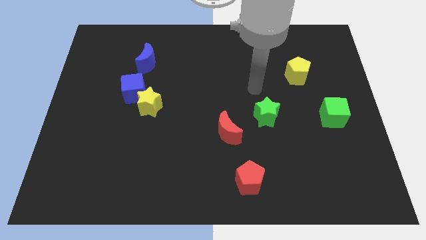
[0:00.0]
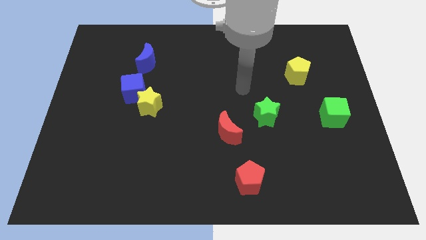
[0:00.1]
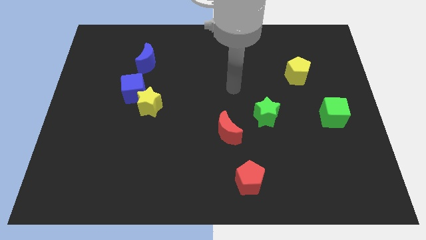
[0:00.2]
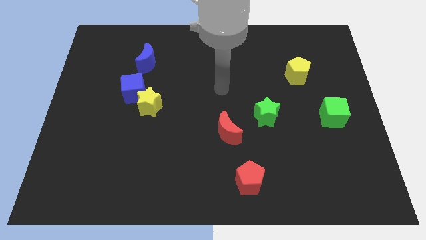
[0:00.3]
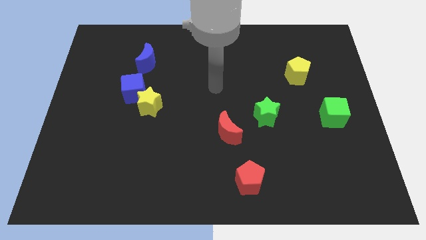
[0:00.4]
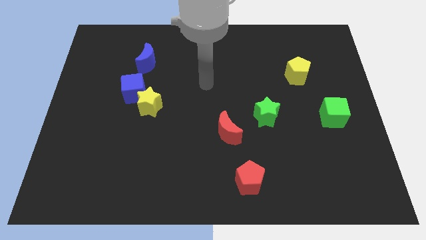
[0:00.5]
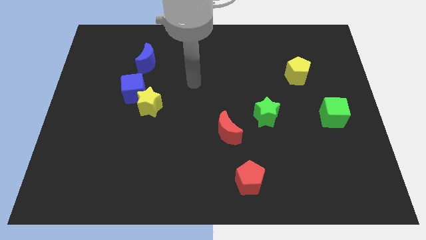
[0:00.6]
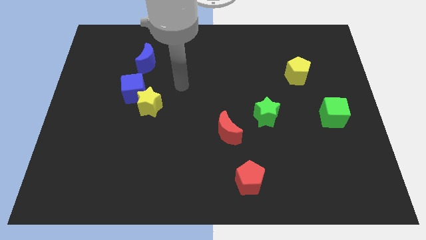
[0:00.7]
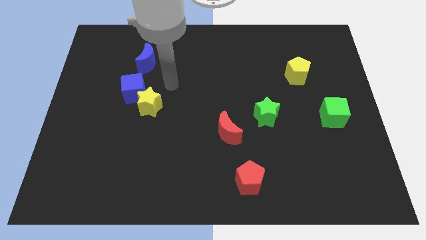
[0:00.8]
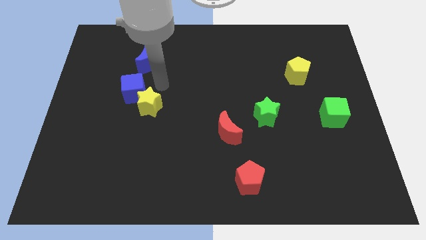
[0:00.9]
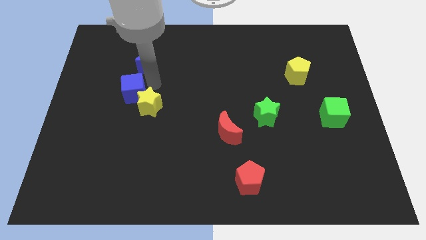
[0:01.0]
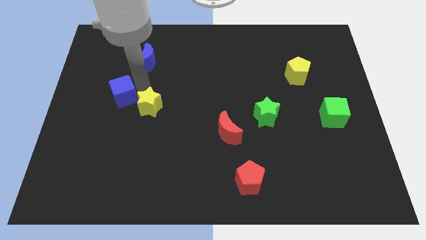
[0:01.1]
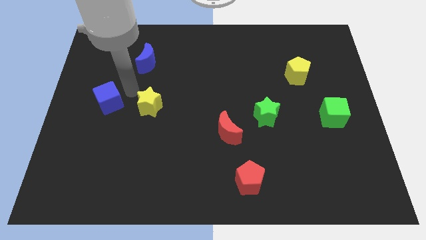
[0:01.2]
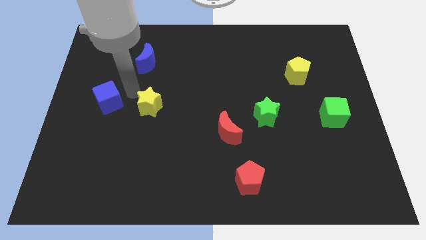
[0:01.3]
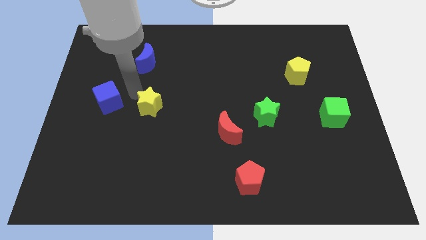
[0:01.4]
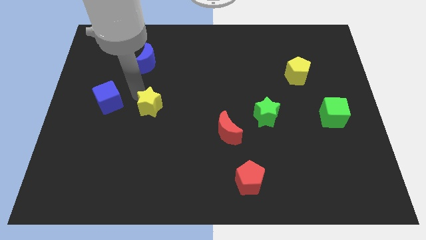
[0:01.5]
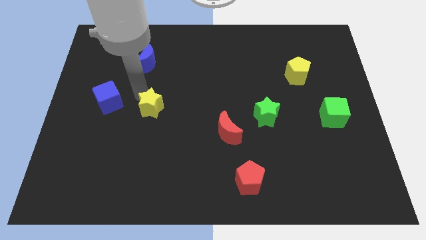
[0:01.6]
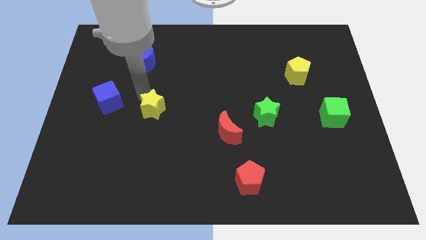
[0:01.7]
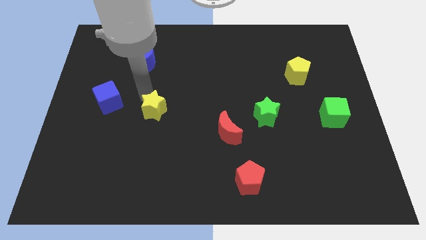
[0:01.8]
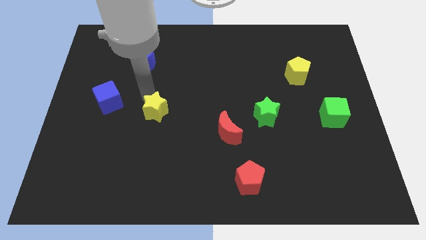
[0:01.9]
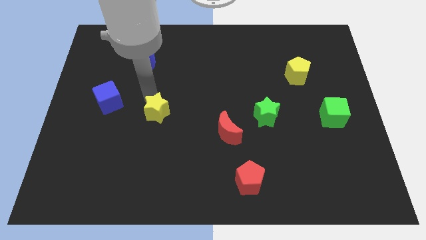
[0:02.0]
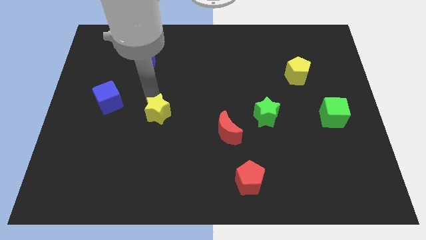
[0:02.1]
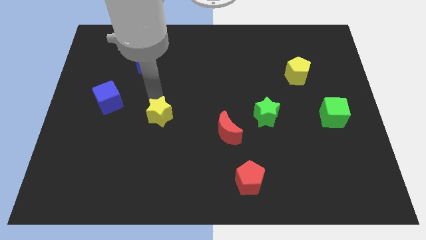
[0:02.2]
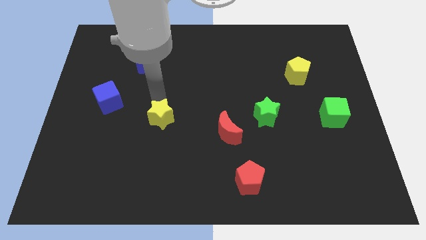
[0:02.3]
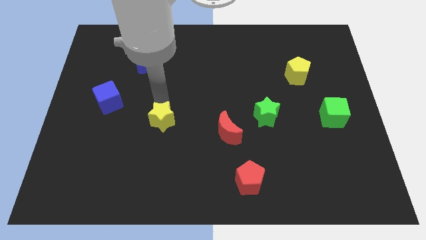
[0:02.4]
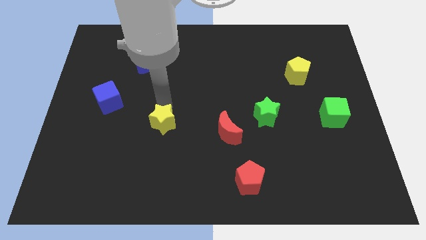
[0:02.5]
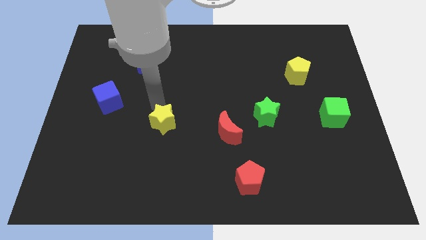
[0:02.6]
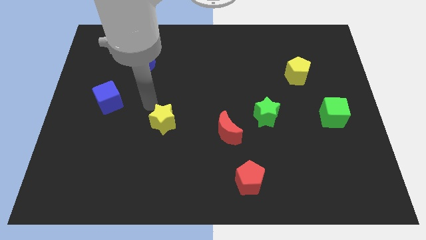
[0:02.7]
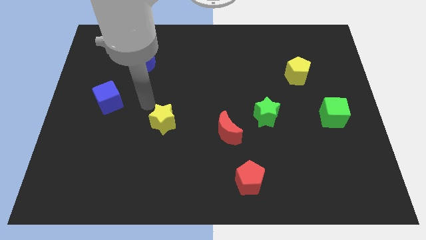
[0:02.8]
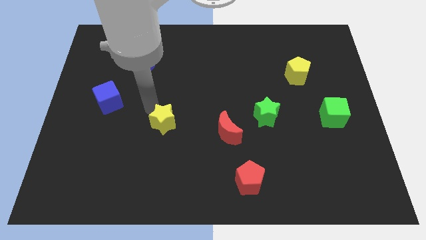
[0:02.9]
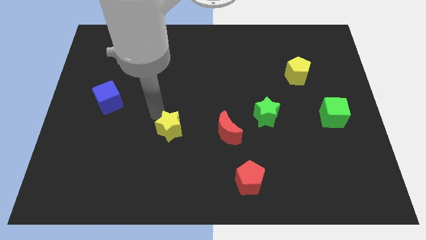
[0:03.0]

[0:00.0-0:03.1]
push the yellow star slightly down and to the right diagonally

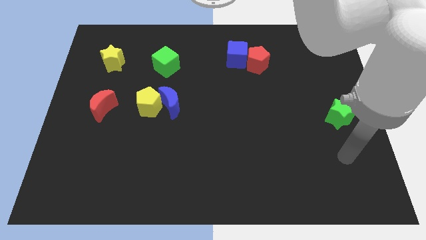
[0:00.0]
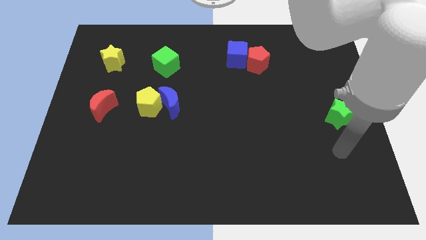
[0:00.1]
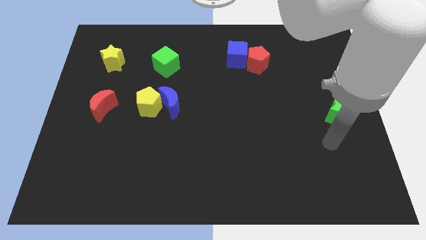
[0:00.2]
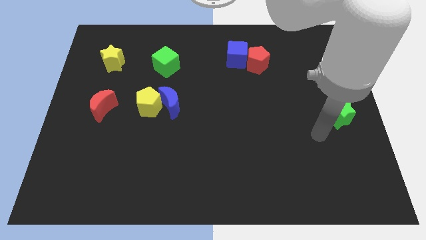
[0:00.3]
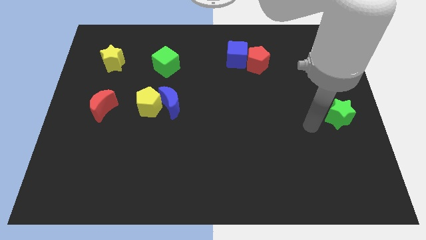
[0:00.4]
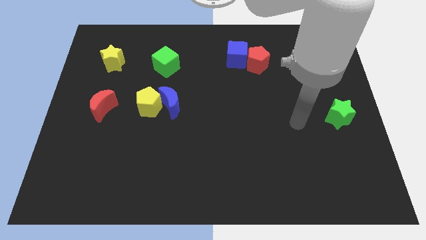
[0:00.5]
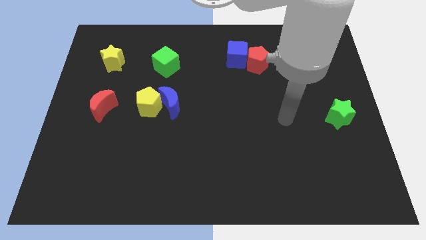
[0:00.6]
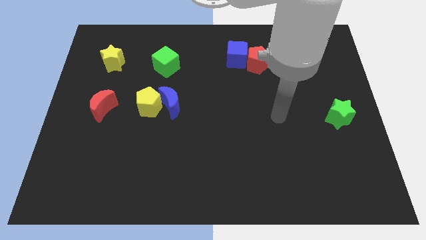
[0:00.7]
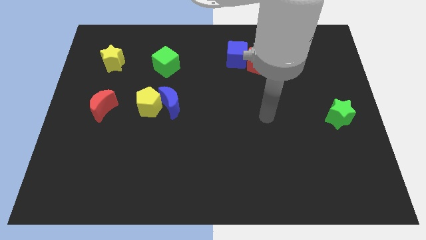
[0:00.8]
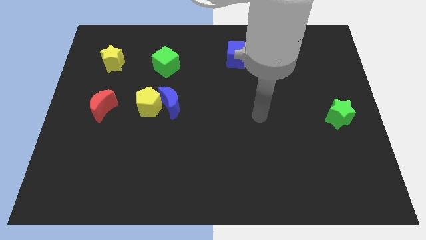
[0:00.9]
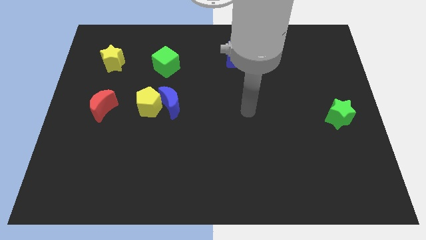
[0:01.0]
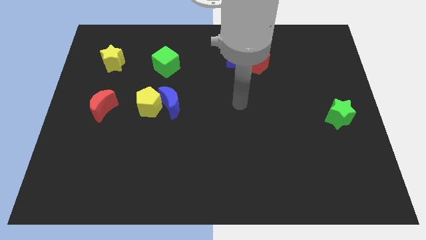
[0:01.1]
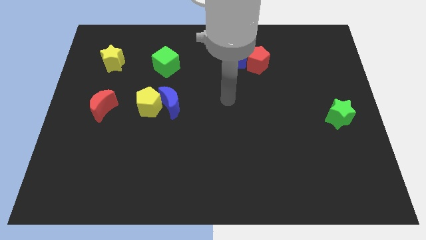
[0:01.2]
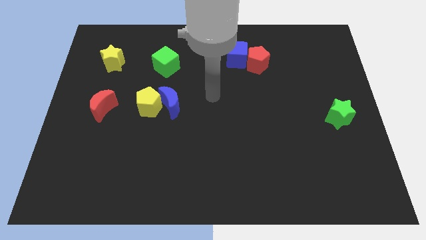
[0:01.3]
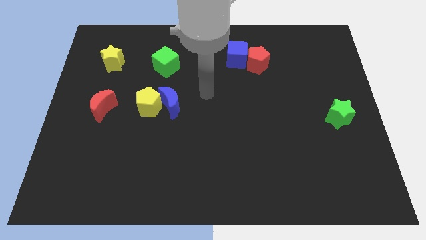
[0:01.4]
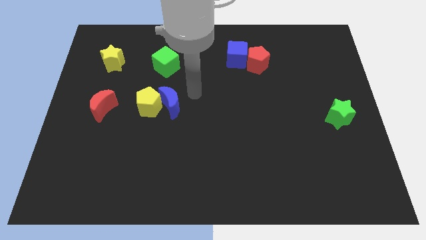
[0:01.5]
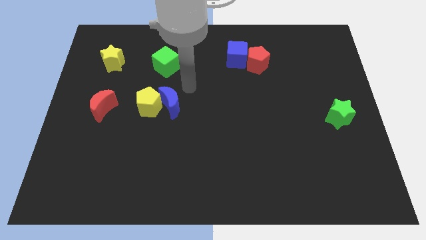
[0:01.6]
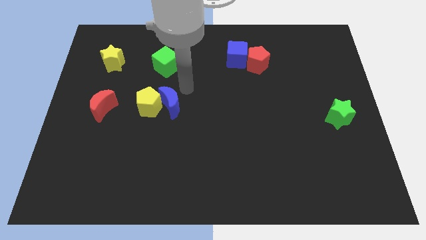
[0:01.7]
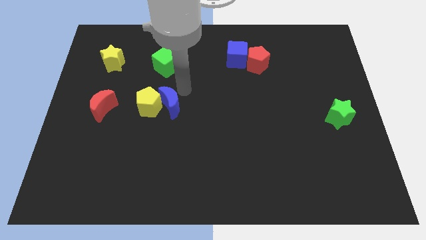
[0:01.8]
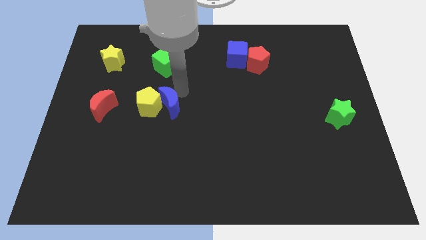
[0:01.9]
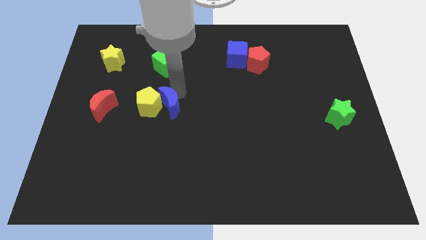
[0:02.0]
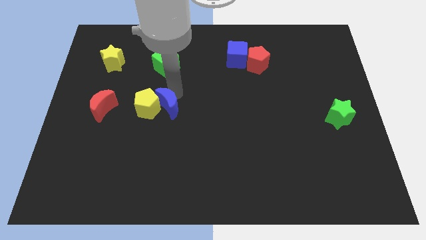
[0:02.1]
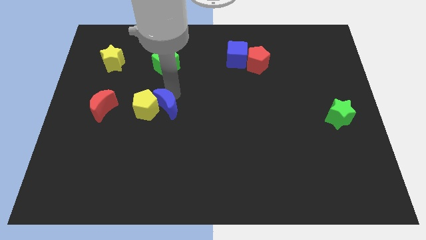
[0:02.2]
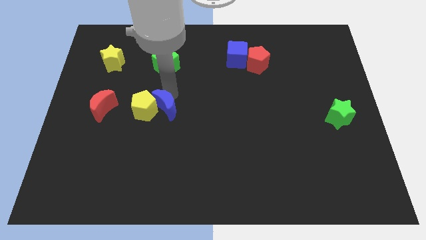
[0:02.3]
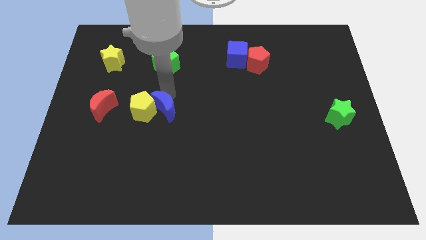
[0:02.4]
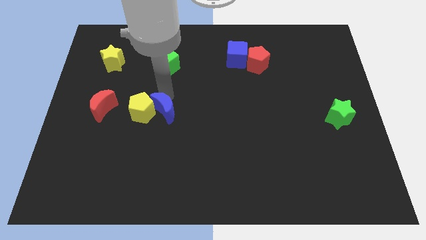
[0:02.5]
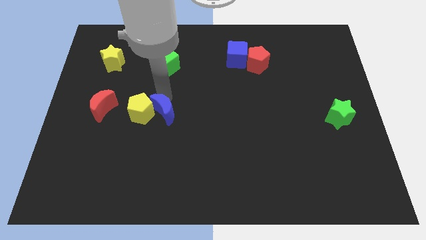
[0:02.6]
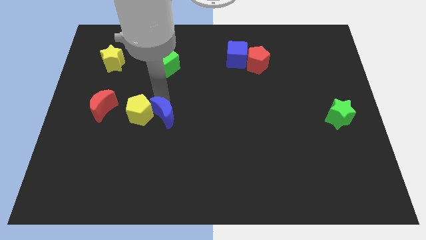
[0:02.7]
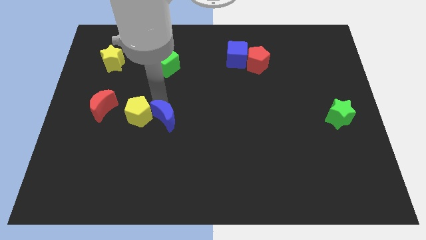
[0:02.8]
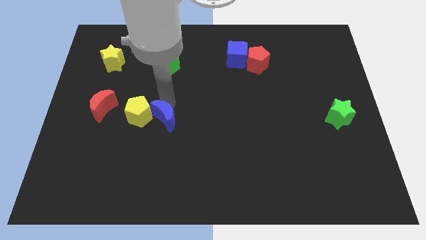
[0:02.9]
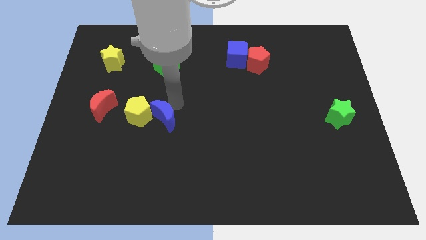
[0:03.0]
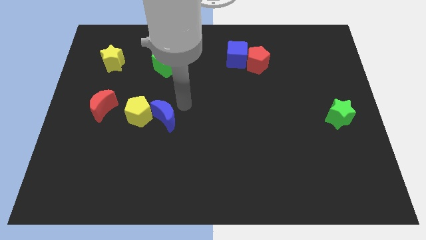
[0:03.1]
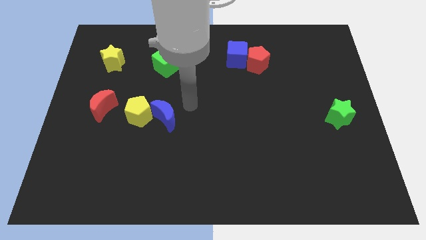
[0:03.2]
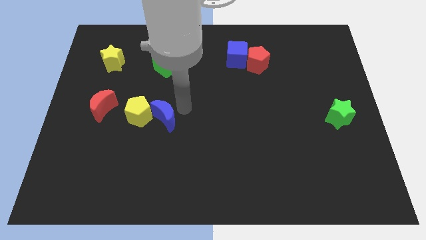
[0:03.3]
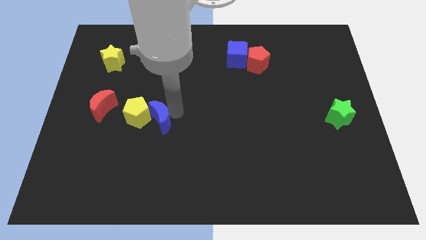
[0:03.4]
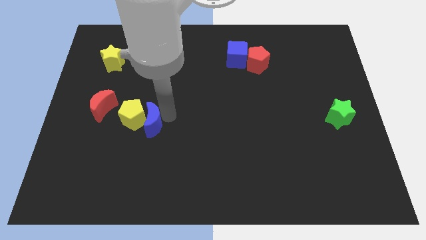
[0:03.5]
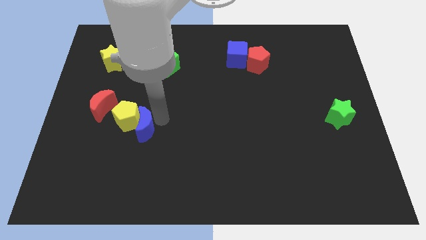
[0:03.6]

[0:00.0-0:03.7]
slightly push the blue moon down and to the left

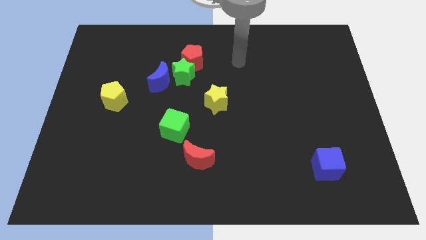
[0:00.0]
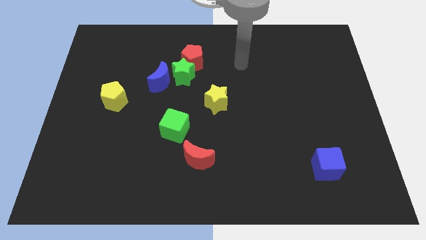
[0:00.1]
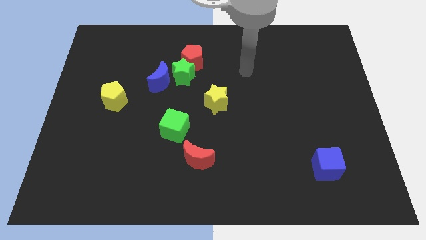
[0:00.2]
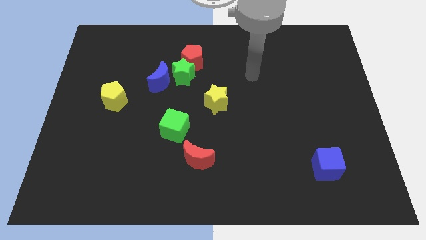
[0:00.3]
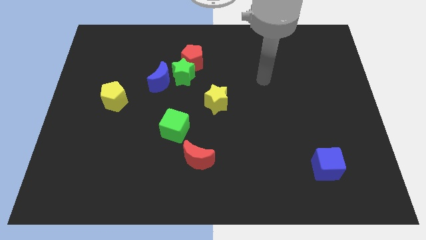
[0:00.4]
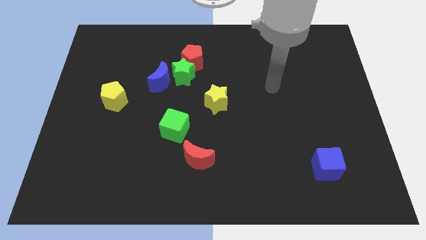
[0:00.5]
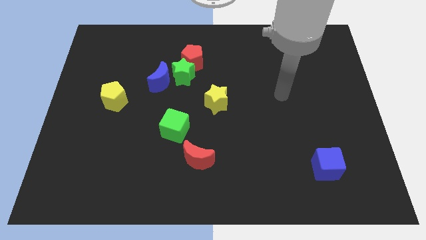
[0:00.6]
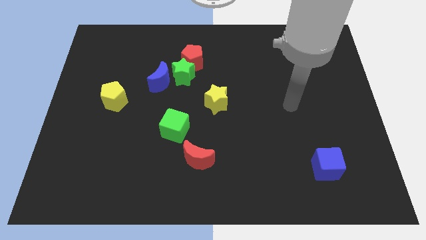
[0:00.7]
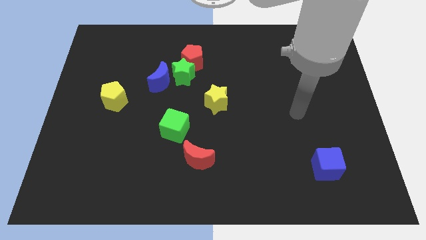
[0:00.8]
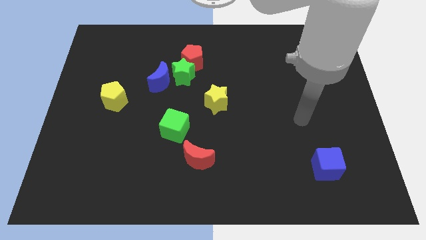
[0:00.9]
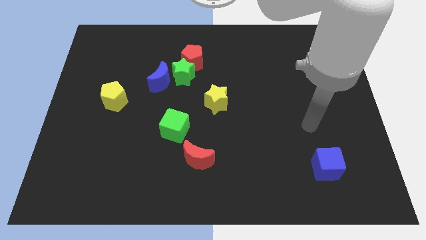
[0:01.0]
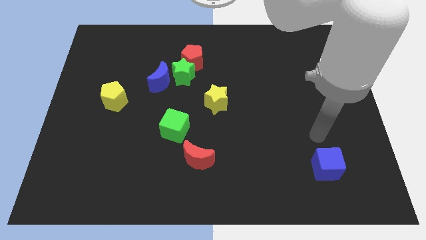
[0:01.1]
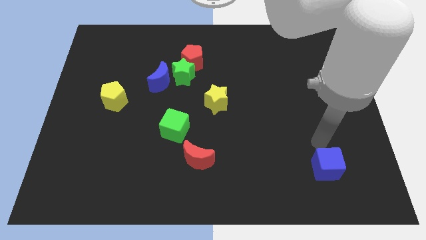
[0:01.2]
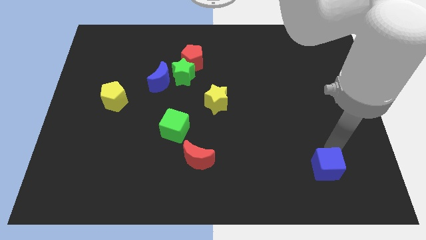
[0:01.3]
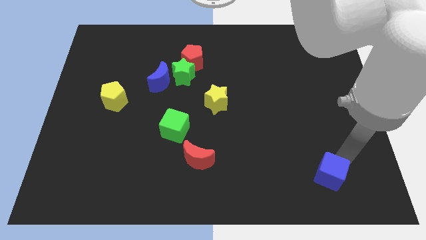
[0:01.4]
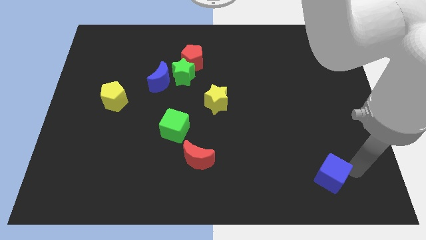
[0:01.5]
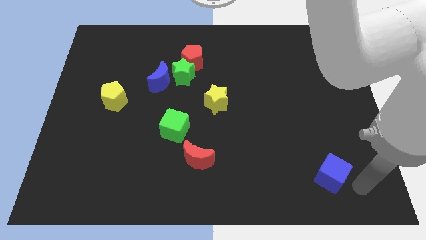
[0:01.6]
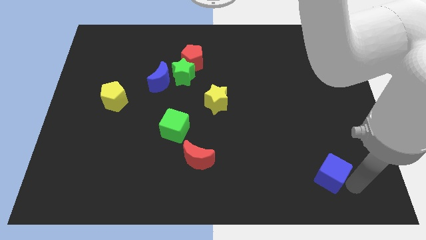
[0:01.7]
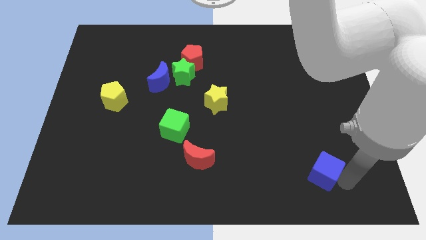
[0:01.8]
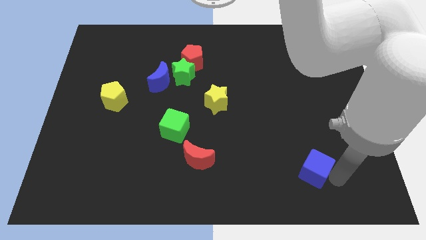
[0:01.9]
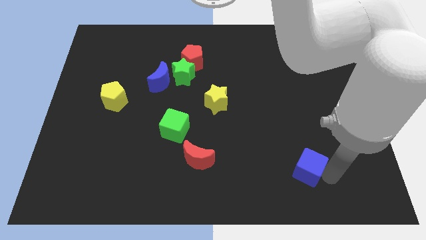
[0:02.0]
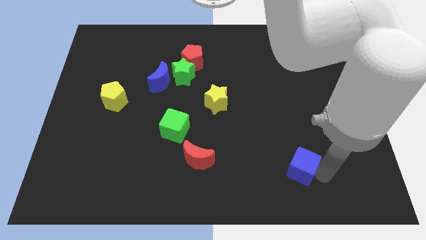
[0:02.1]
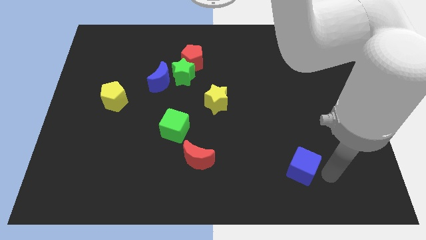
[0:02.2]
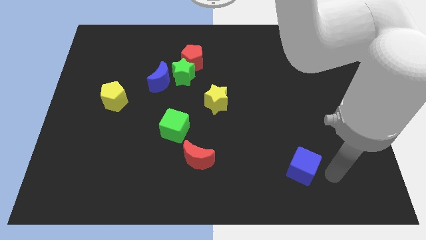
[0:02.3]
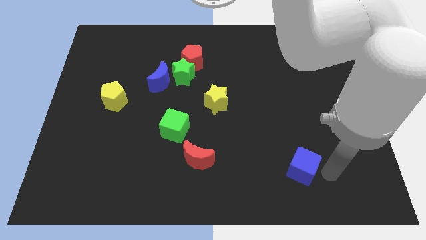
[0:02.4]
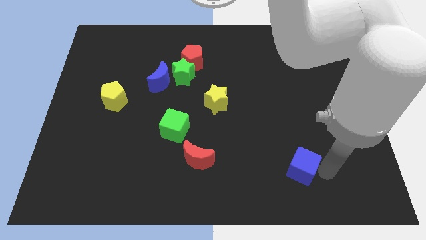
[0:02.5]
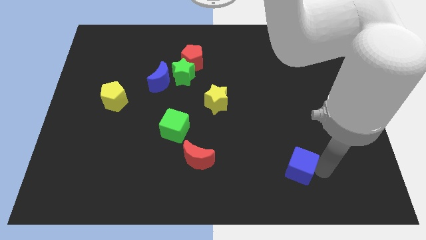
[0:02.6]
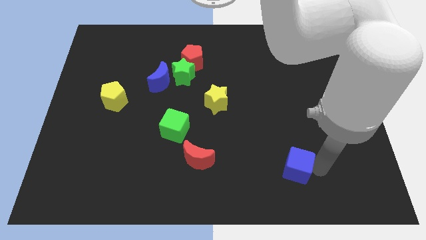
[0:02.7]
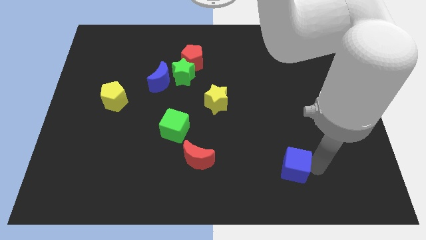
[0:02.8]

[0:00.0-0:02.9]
slightly push the blue cube to the left
